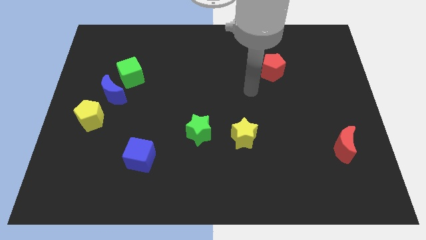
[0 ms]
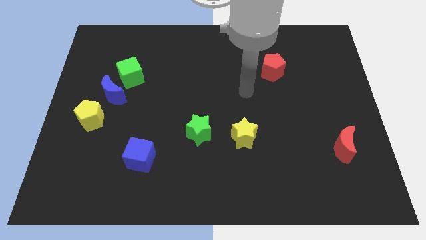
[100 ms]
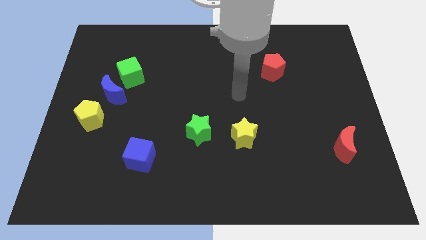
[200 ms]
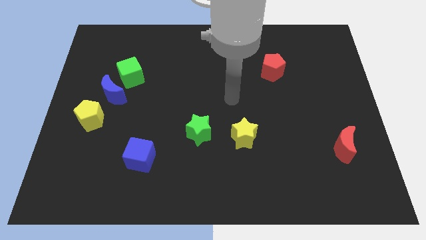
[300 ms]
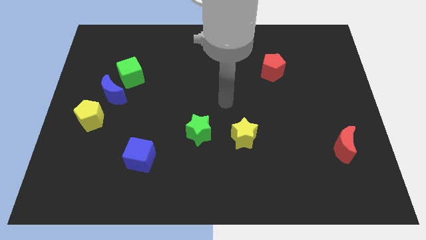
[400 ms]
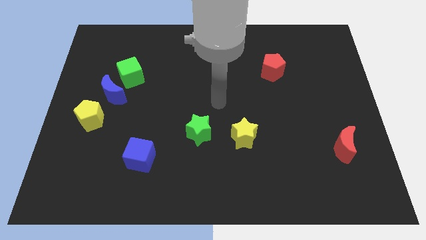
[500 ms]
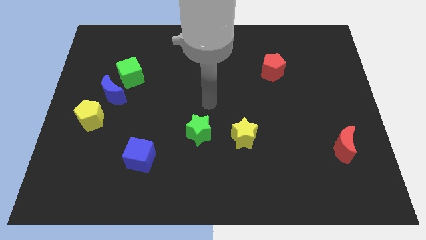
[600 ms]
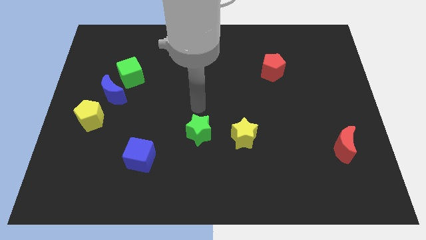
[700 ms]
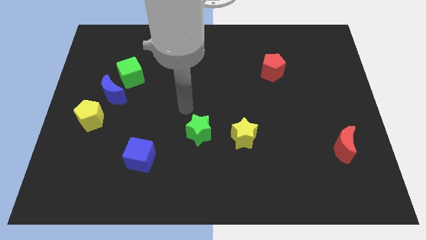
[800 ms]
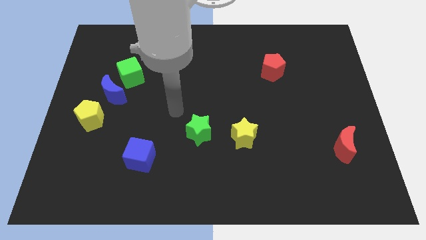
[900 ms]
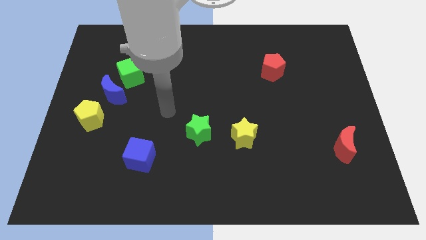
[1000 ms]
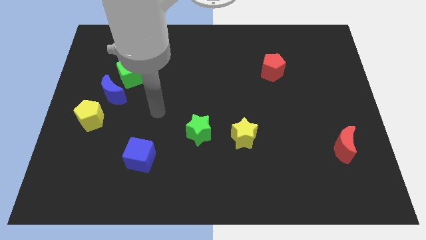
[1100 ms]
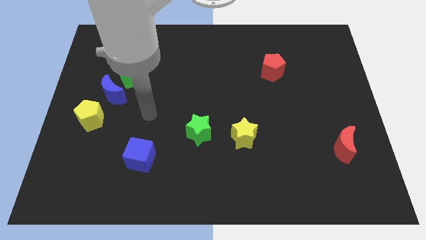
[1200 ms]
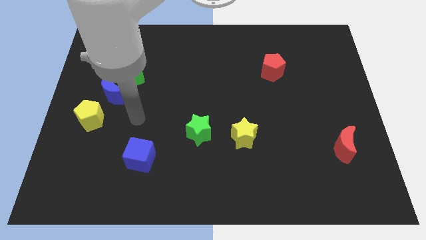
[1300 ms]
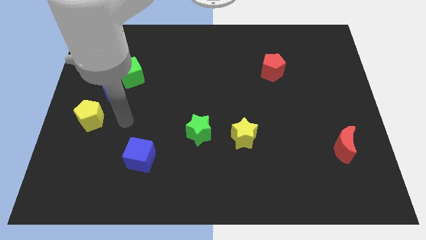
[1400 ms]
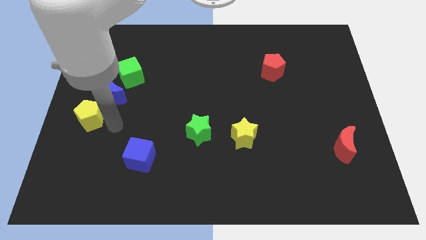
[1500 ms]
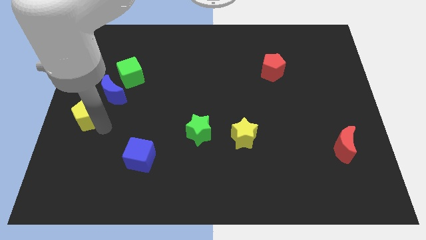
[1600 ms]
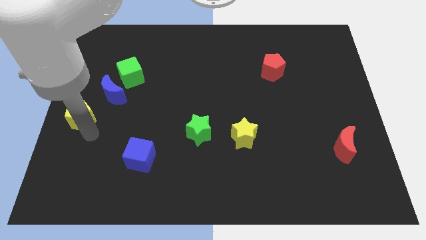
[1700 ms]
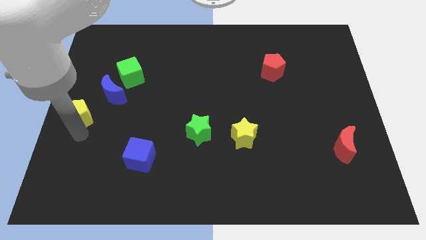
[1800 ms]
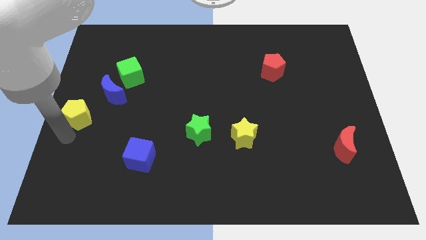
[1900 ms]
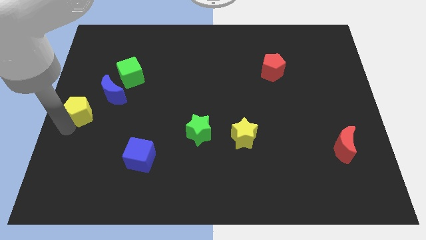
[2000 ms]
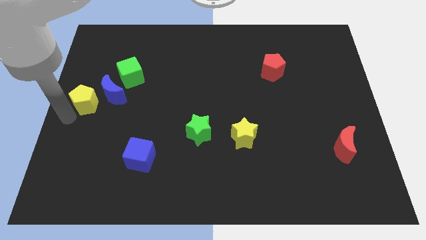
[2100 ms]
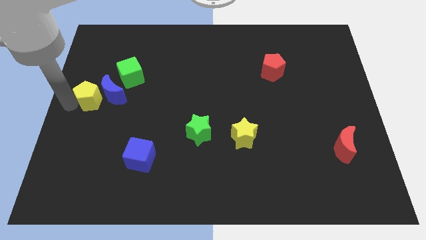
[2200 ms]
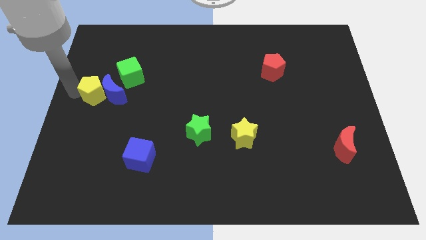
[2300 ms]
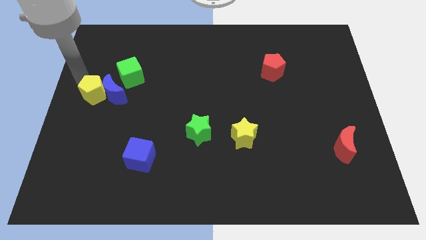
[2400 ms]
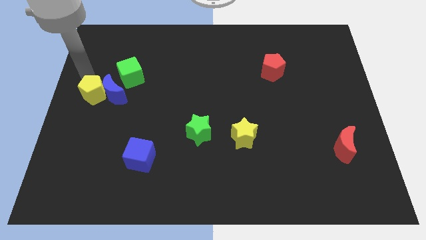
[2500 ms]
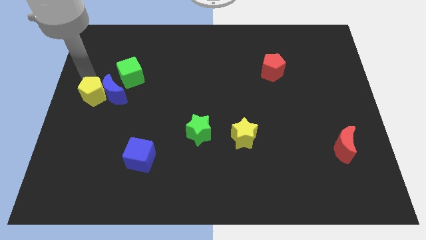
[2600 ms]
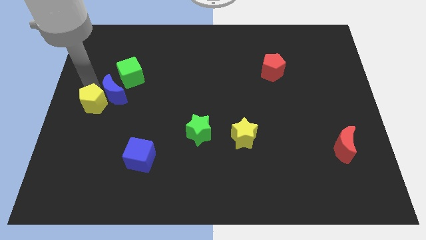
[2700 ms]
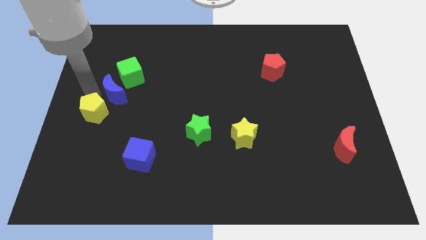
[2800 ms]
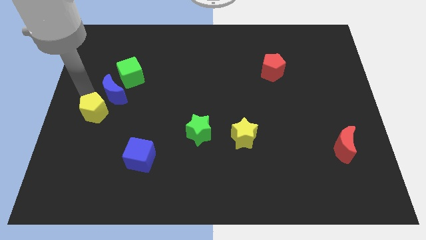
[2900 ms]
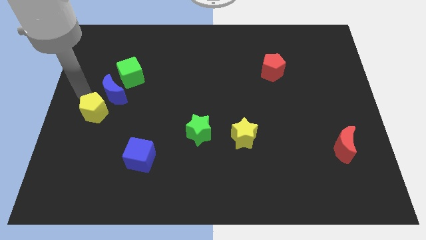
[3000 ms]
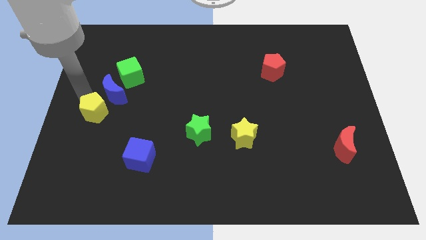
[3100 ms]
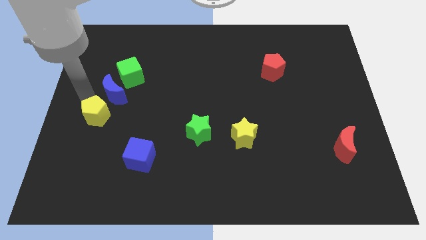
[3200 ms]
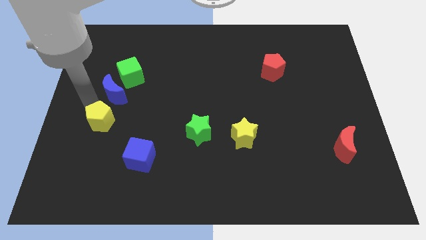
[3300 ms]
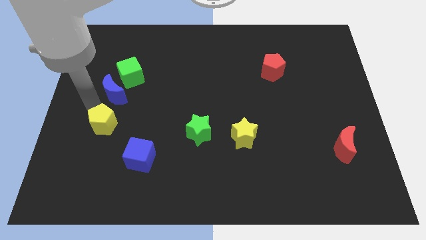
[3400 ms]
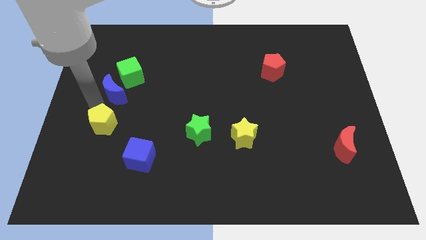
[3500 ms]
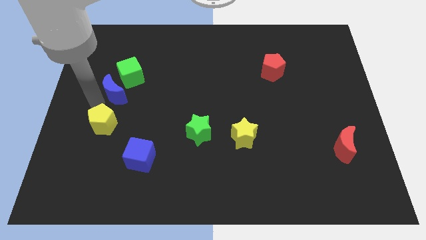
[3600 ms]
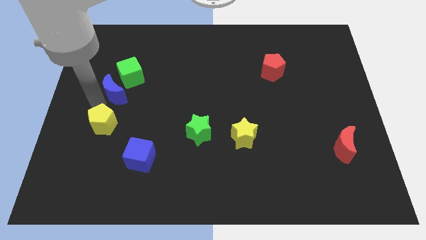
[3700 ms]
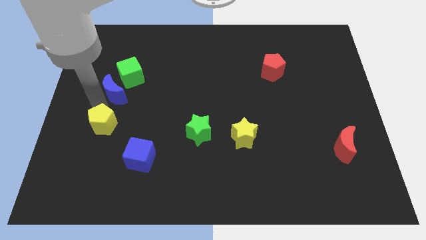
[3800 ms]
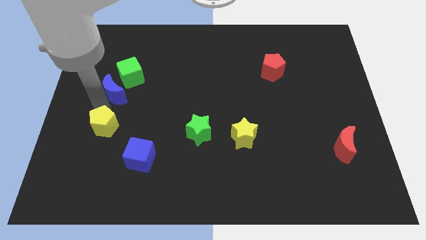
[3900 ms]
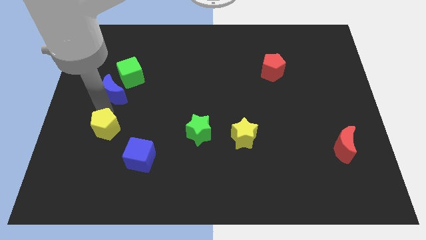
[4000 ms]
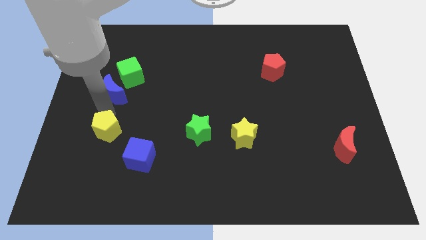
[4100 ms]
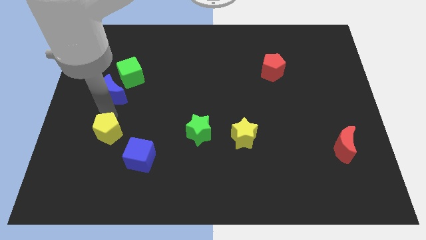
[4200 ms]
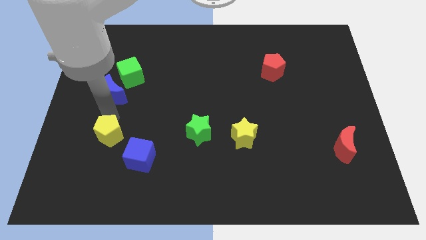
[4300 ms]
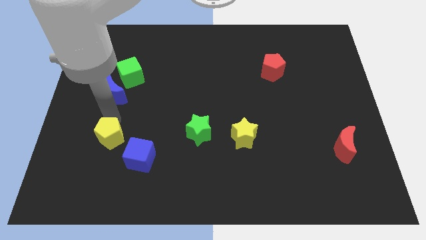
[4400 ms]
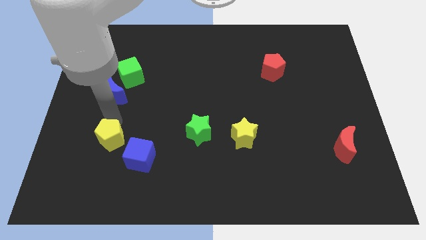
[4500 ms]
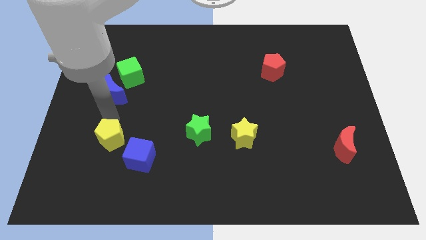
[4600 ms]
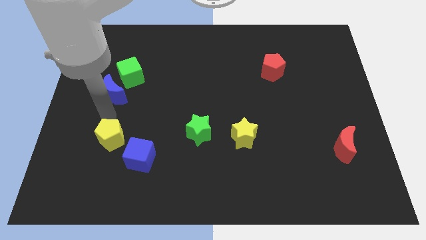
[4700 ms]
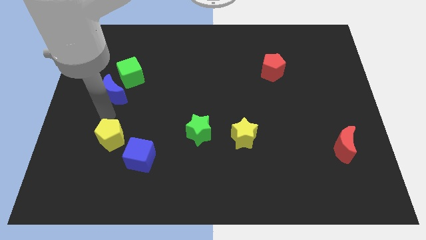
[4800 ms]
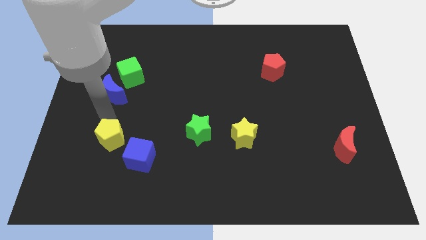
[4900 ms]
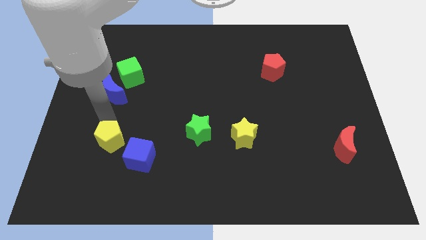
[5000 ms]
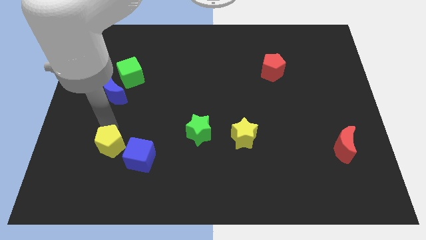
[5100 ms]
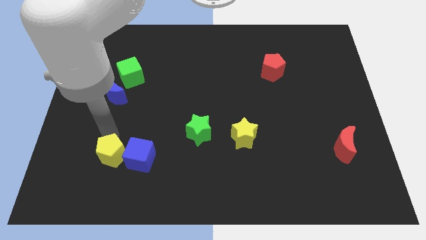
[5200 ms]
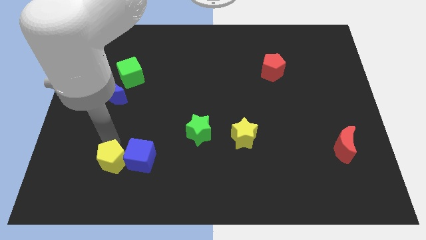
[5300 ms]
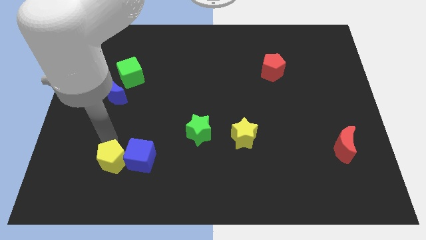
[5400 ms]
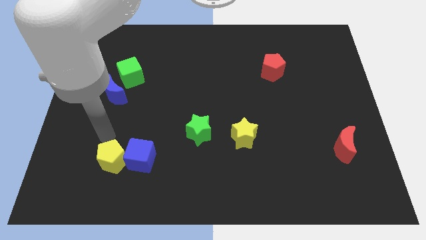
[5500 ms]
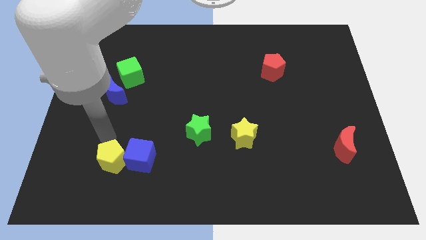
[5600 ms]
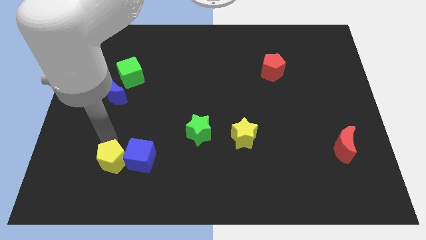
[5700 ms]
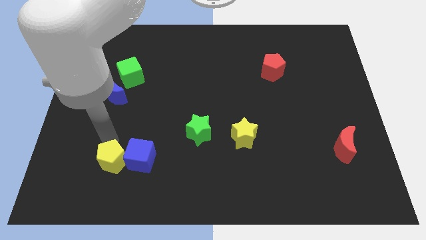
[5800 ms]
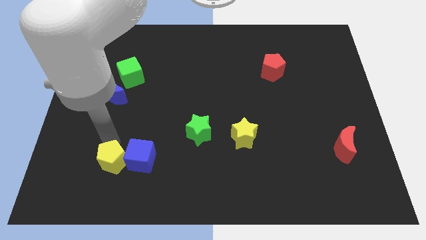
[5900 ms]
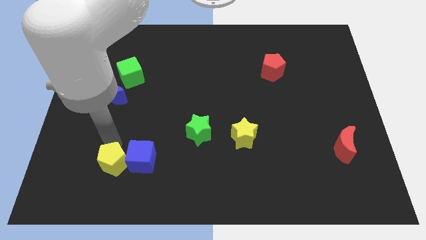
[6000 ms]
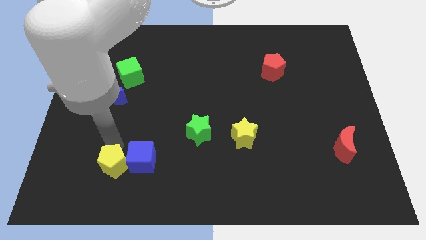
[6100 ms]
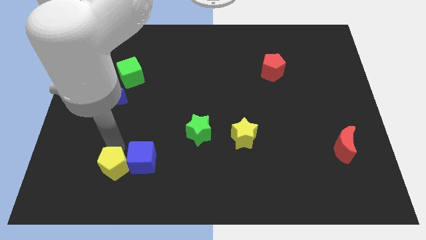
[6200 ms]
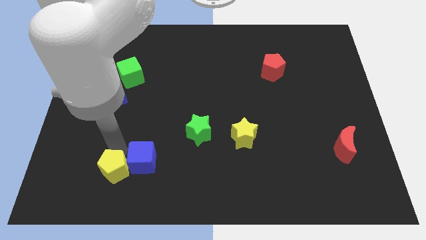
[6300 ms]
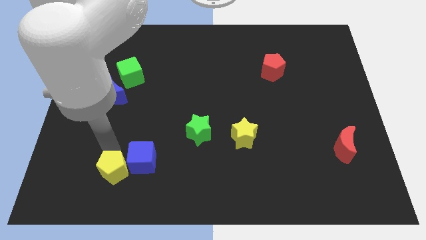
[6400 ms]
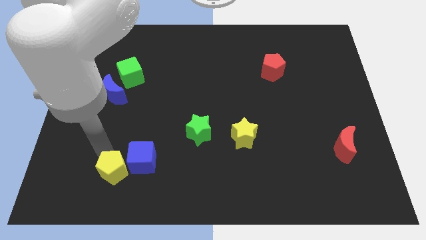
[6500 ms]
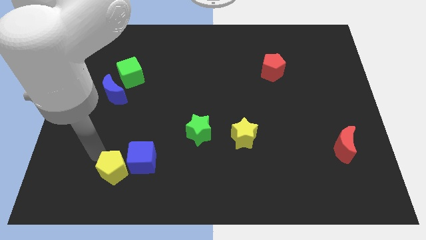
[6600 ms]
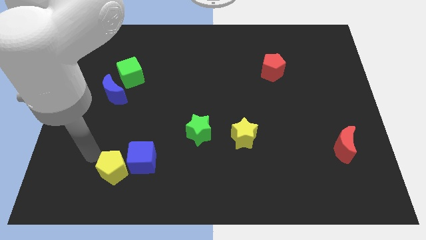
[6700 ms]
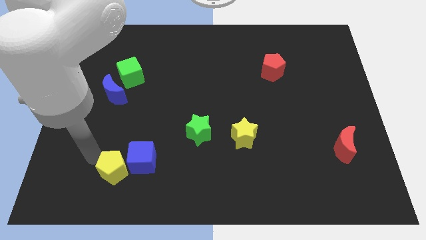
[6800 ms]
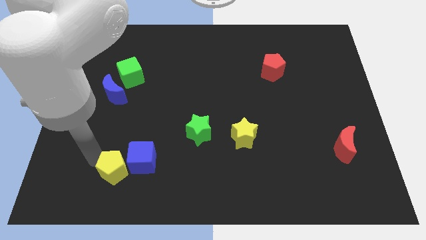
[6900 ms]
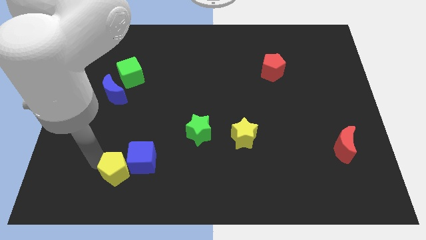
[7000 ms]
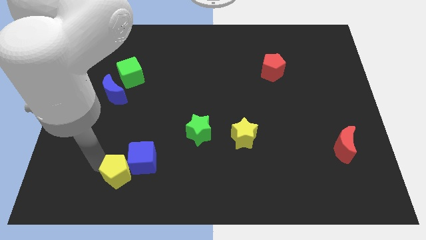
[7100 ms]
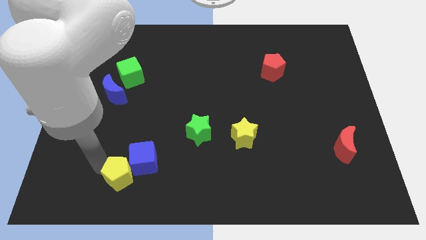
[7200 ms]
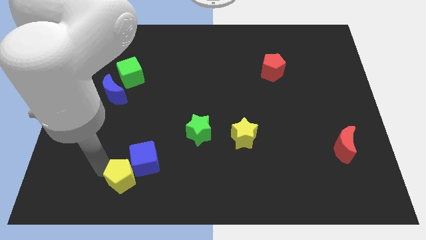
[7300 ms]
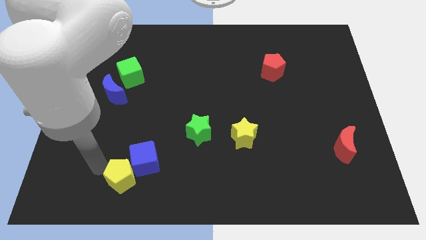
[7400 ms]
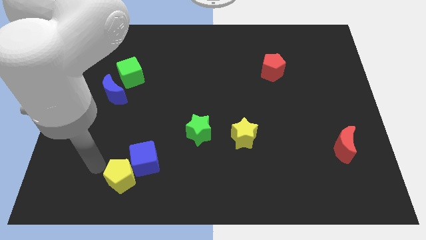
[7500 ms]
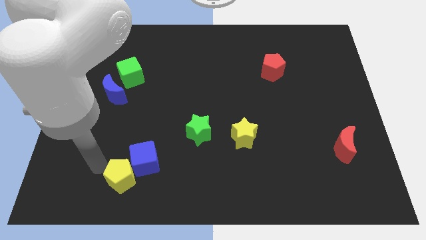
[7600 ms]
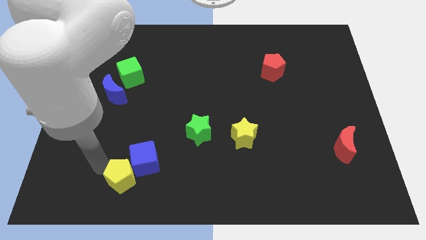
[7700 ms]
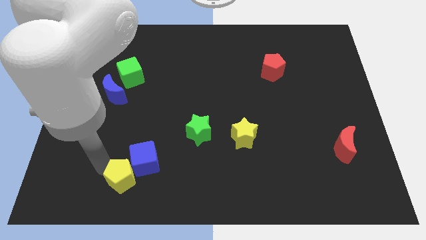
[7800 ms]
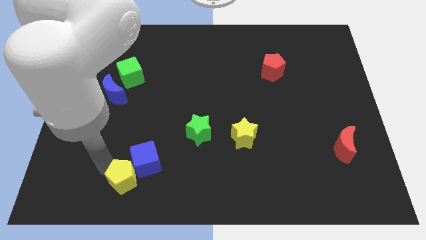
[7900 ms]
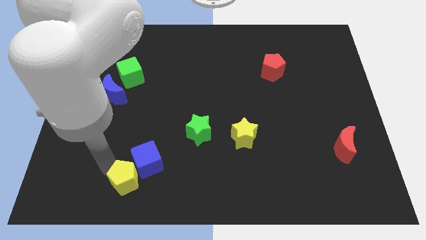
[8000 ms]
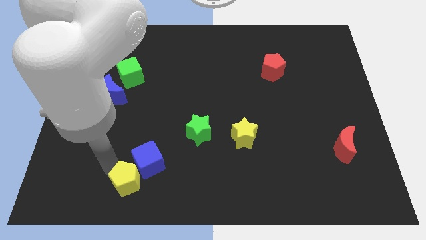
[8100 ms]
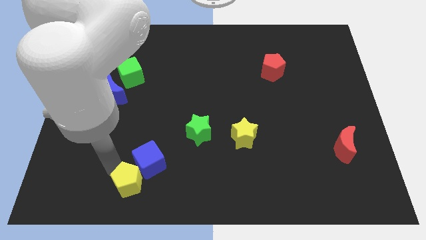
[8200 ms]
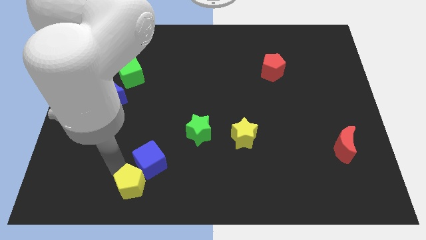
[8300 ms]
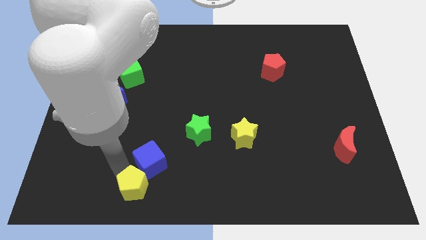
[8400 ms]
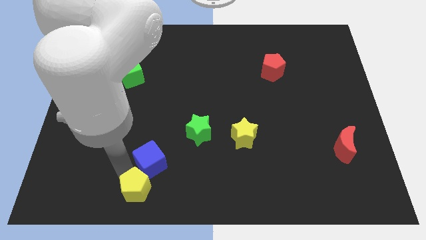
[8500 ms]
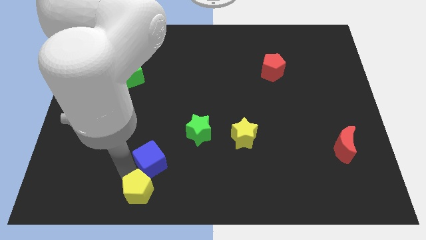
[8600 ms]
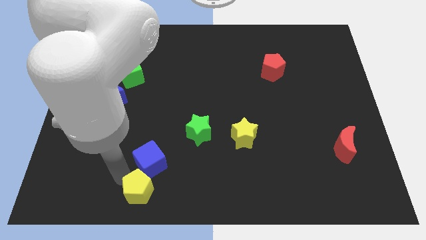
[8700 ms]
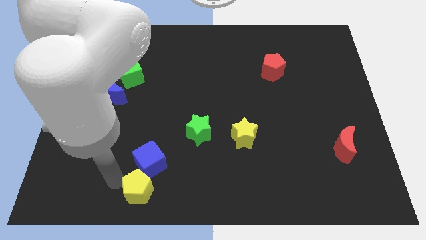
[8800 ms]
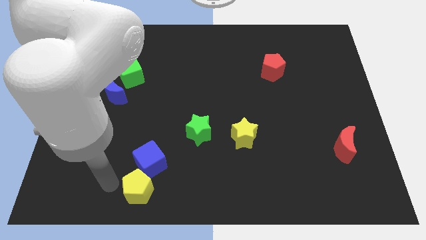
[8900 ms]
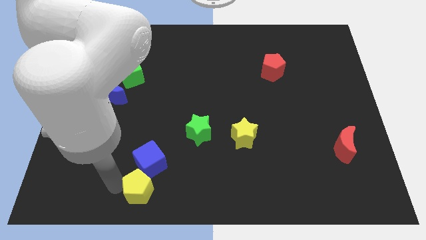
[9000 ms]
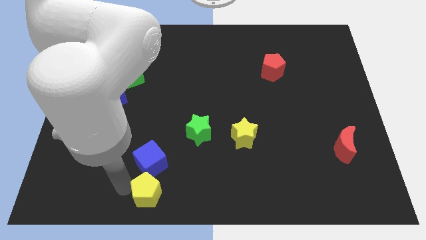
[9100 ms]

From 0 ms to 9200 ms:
slide the yellow pentagon to the bottom
